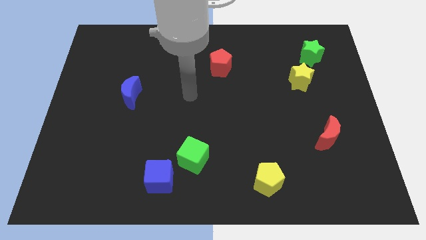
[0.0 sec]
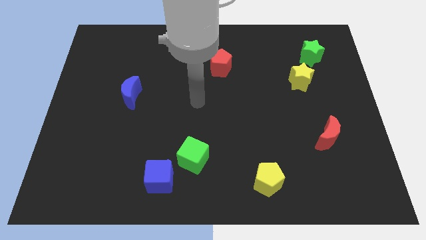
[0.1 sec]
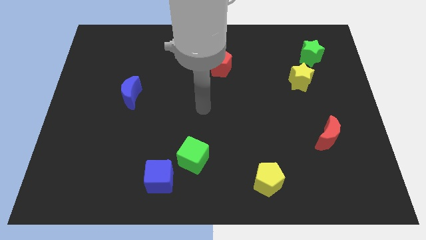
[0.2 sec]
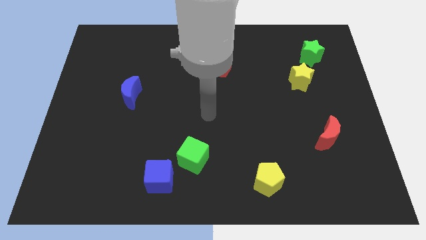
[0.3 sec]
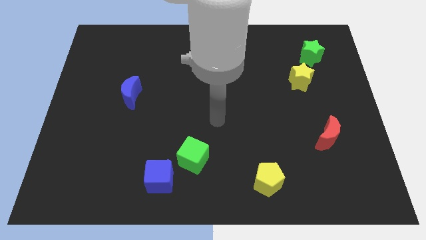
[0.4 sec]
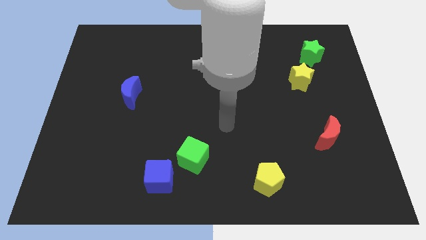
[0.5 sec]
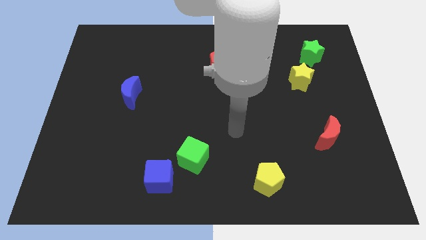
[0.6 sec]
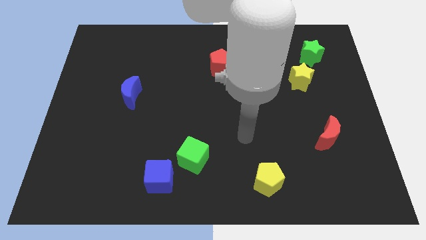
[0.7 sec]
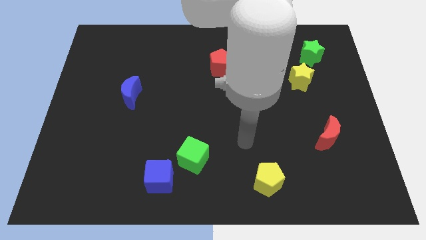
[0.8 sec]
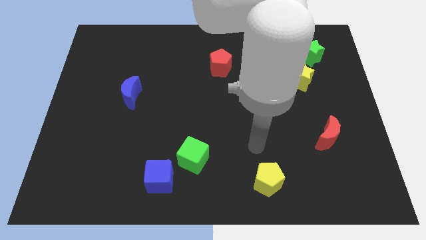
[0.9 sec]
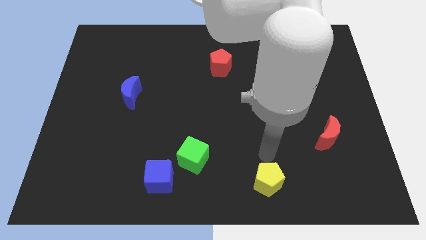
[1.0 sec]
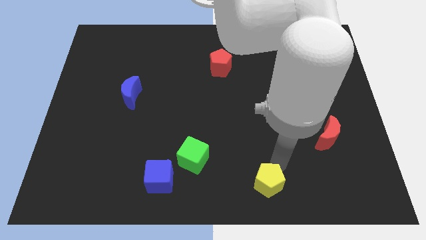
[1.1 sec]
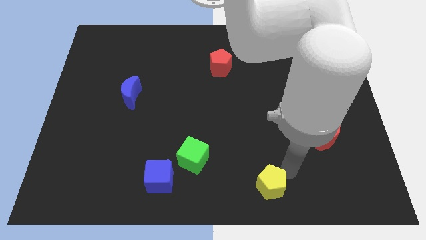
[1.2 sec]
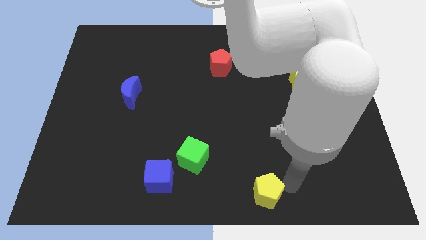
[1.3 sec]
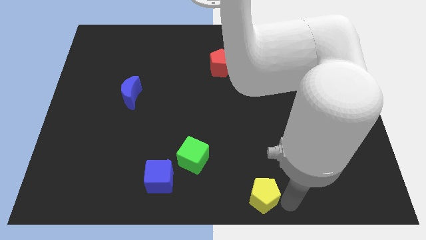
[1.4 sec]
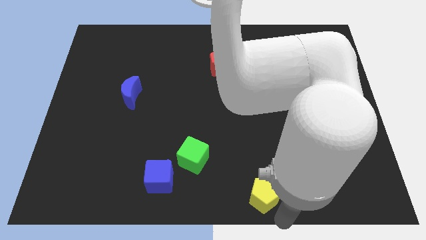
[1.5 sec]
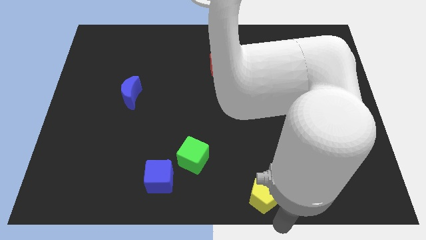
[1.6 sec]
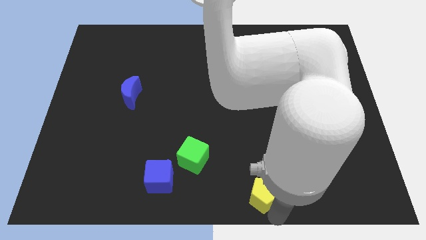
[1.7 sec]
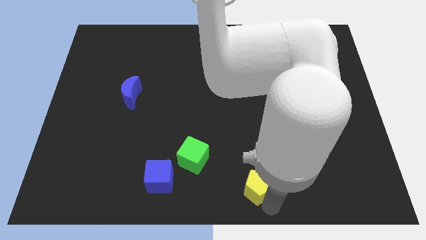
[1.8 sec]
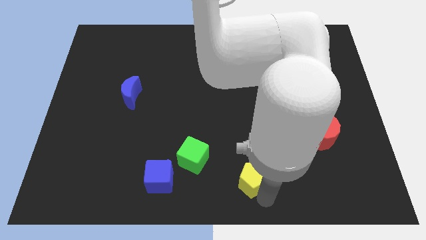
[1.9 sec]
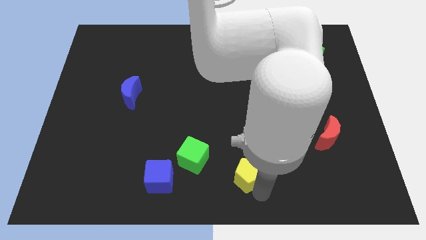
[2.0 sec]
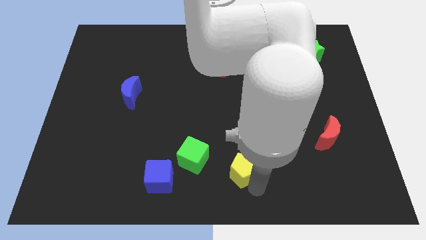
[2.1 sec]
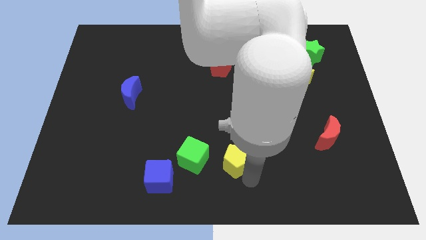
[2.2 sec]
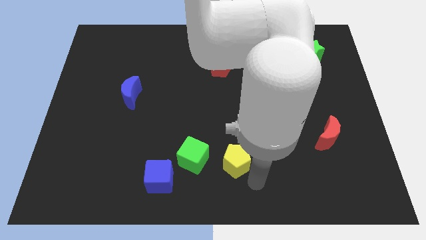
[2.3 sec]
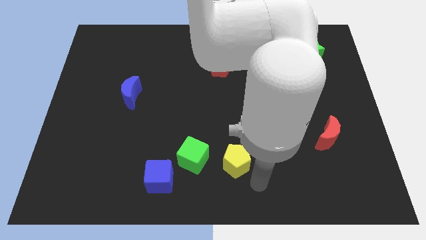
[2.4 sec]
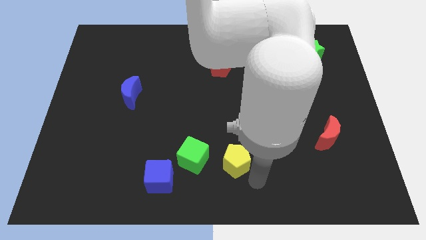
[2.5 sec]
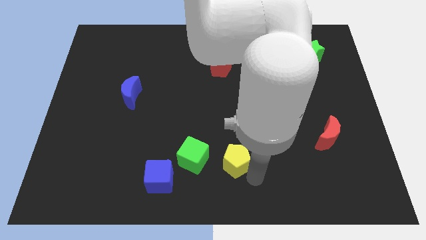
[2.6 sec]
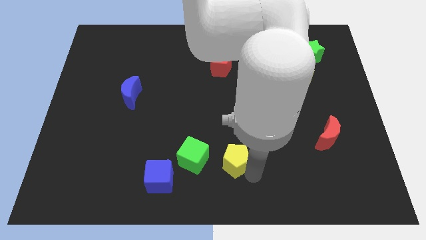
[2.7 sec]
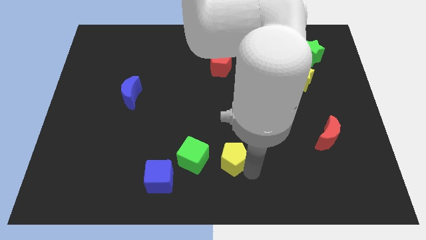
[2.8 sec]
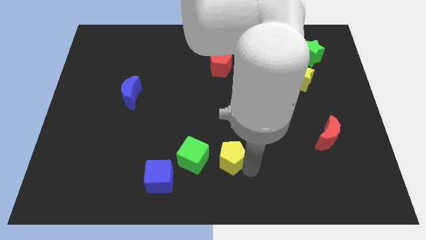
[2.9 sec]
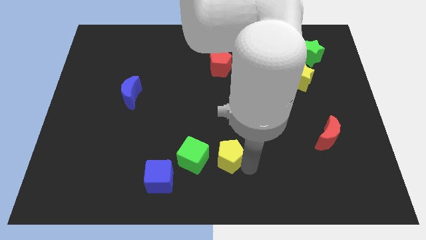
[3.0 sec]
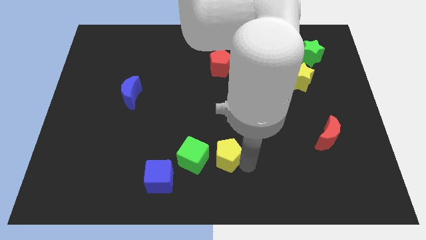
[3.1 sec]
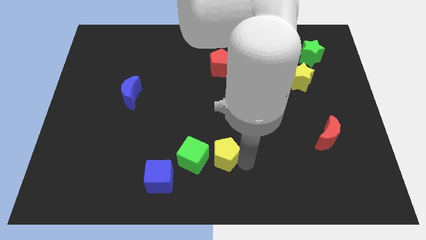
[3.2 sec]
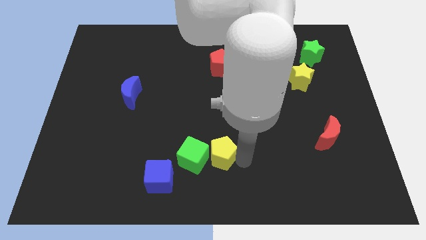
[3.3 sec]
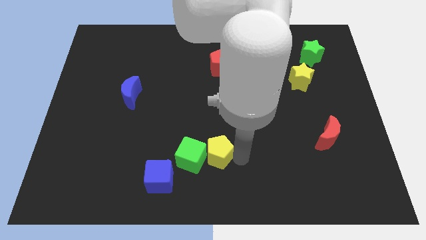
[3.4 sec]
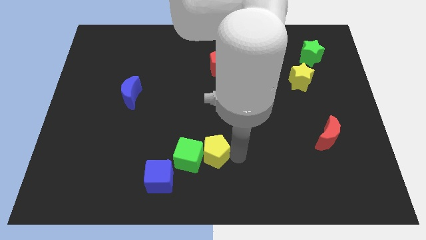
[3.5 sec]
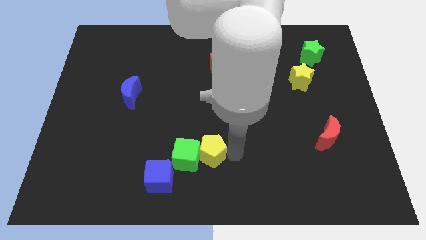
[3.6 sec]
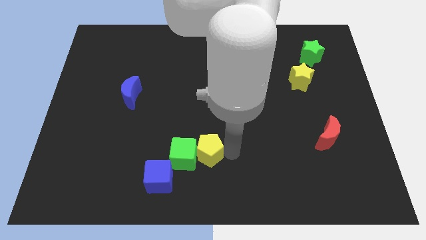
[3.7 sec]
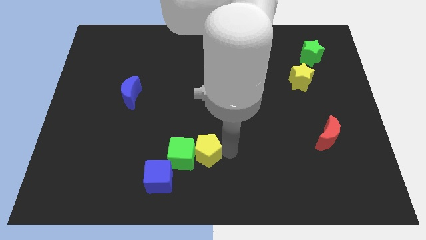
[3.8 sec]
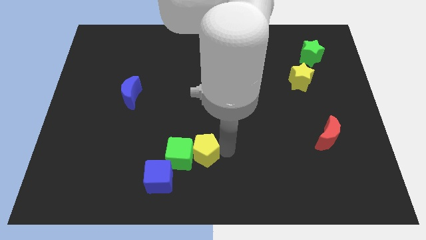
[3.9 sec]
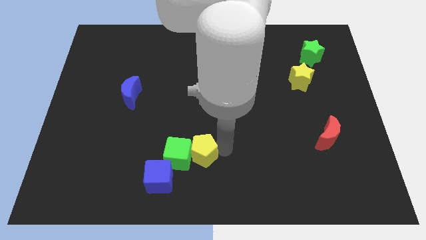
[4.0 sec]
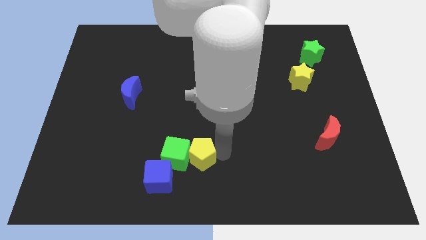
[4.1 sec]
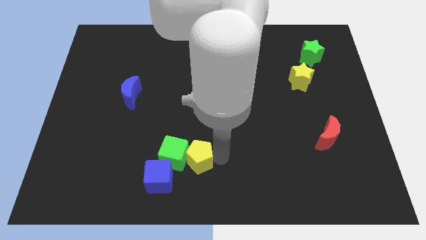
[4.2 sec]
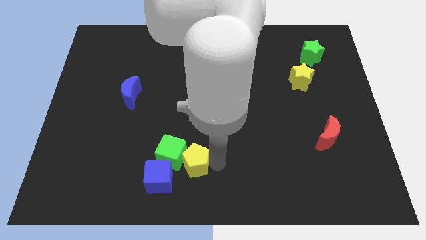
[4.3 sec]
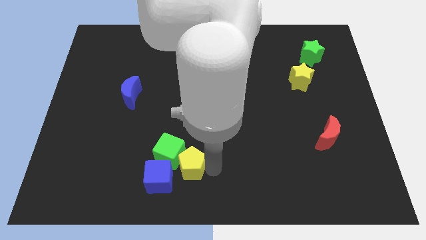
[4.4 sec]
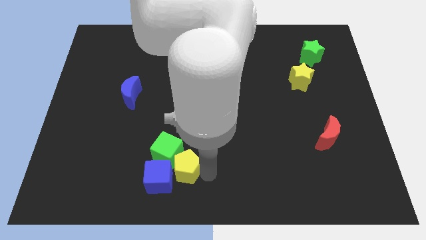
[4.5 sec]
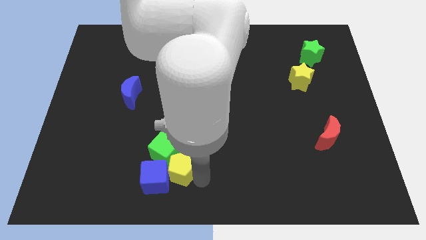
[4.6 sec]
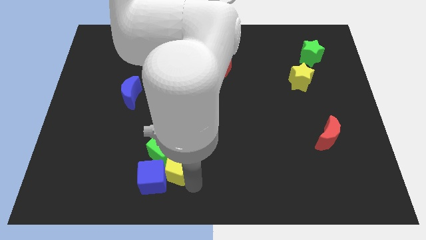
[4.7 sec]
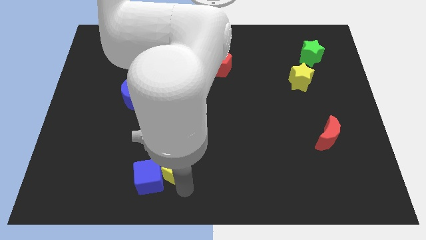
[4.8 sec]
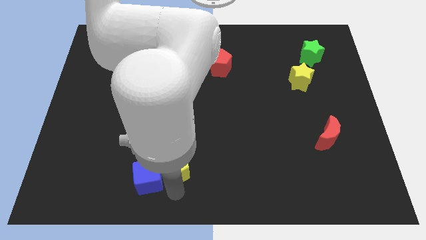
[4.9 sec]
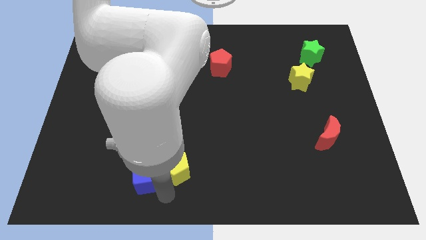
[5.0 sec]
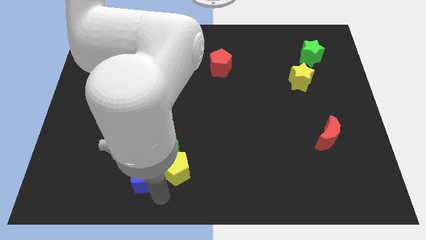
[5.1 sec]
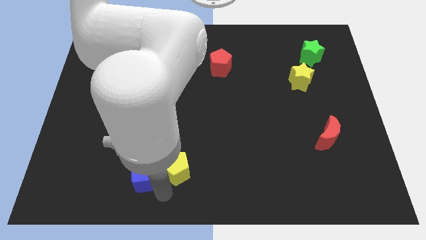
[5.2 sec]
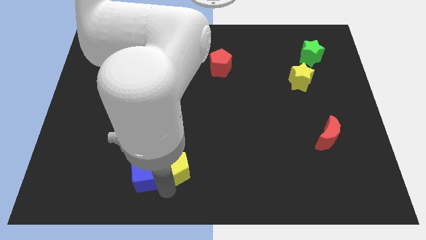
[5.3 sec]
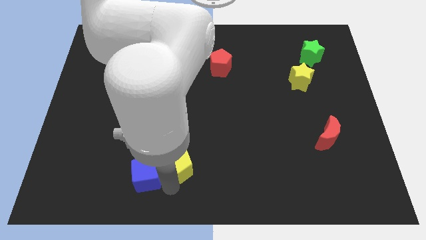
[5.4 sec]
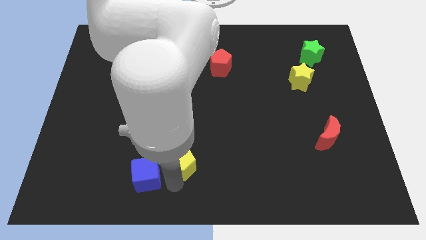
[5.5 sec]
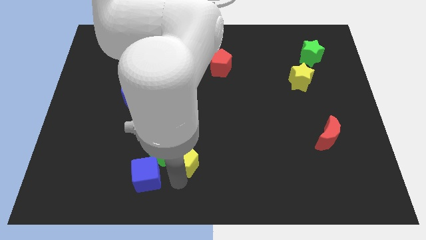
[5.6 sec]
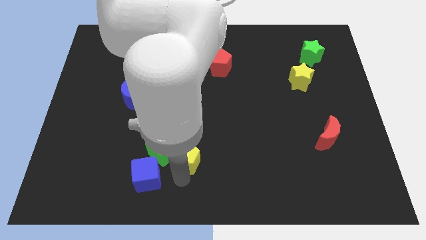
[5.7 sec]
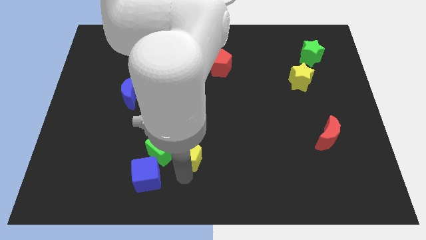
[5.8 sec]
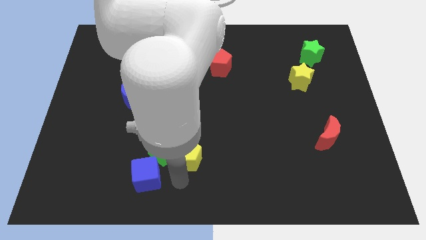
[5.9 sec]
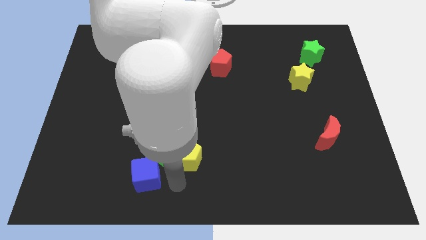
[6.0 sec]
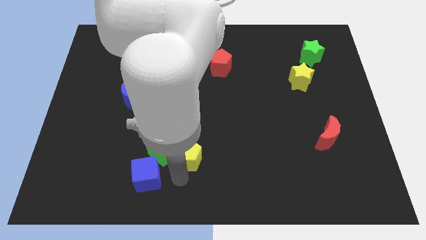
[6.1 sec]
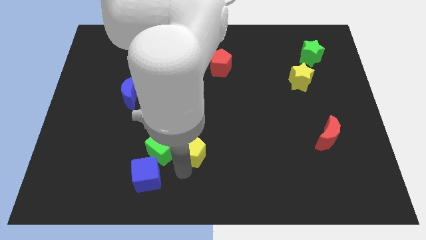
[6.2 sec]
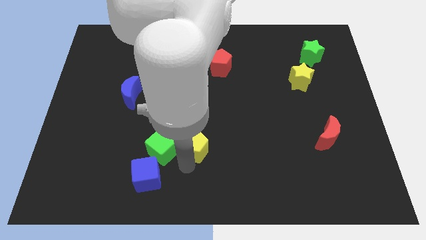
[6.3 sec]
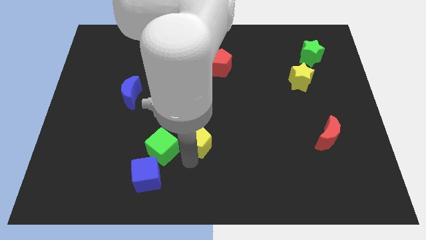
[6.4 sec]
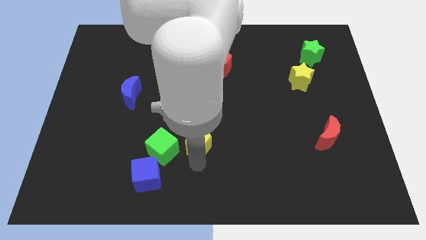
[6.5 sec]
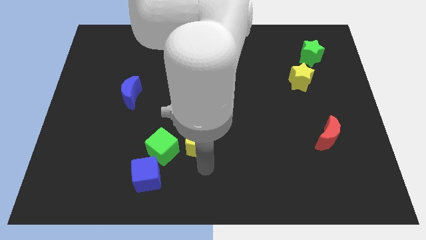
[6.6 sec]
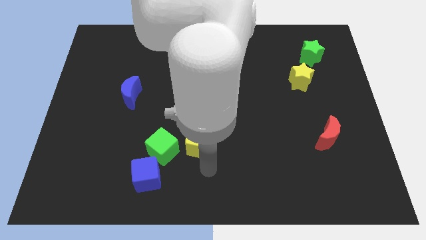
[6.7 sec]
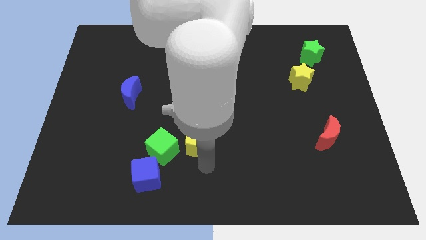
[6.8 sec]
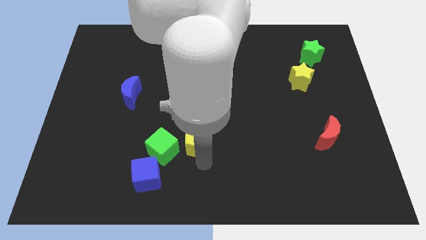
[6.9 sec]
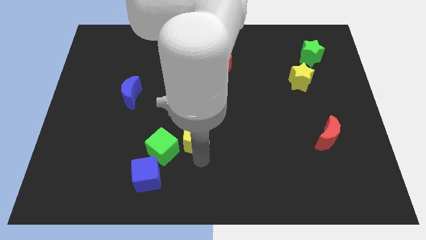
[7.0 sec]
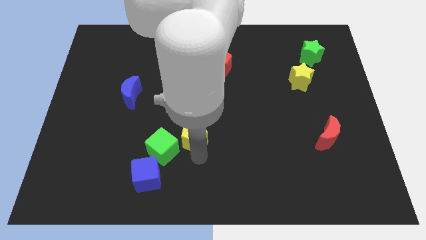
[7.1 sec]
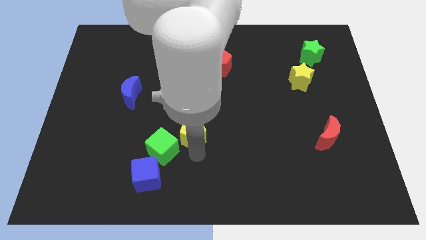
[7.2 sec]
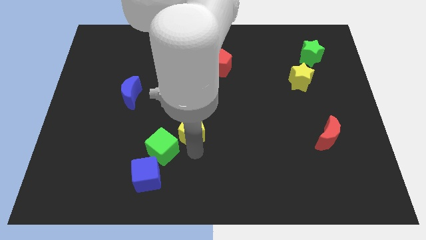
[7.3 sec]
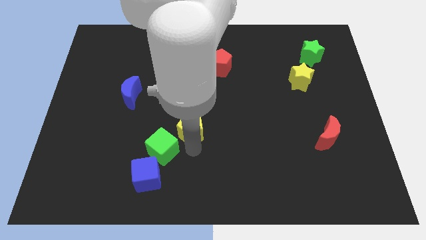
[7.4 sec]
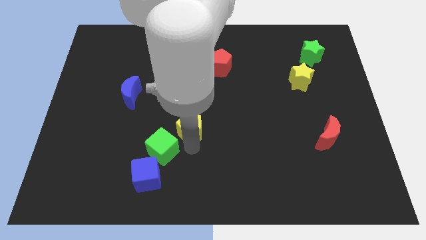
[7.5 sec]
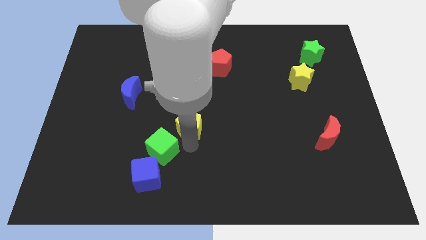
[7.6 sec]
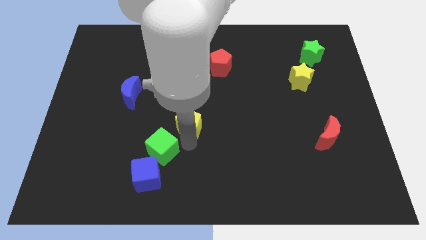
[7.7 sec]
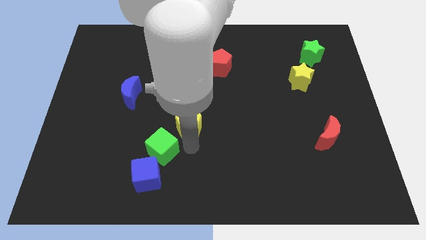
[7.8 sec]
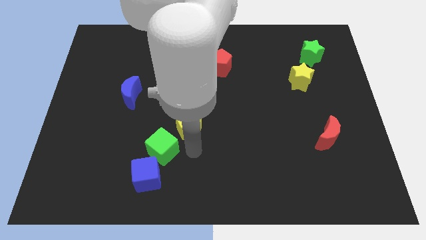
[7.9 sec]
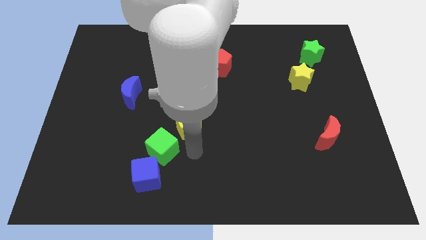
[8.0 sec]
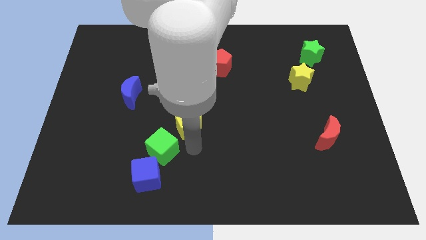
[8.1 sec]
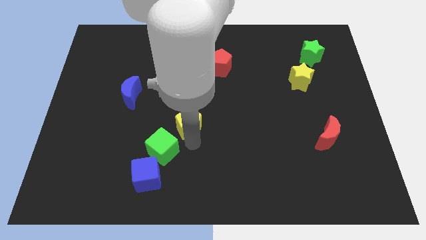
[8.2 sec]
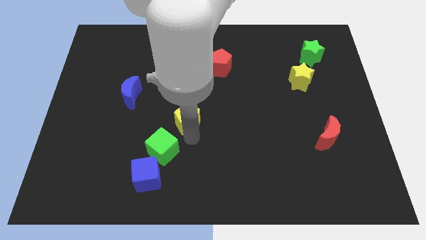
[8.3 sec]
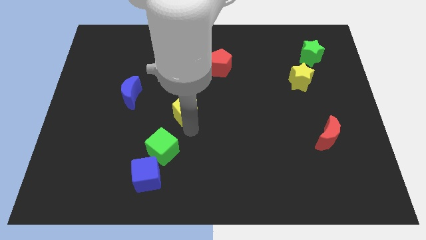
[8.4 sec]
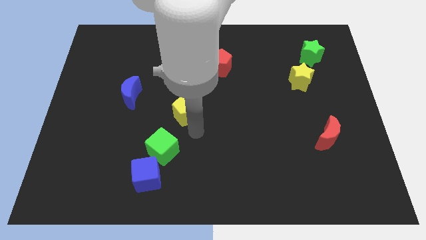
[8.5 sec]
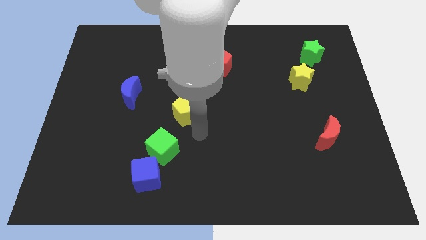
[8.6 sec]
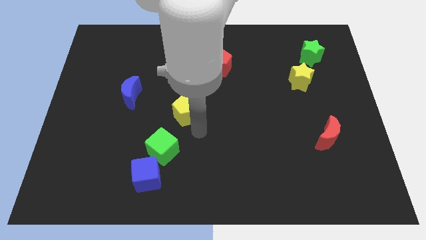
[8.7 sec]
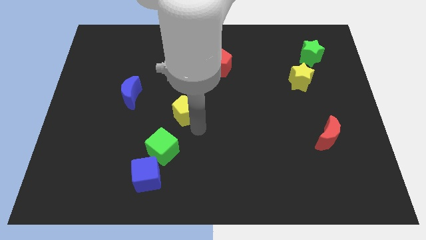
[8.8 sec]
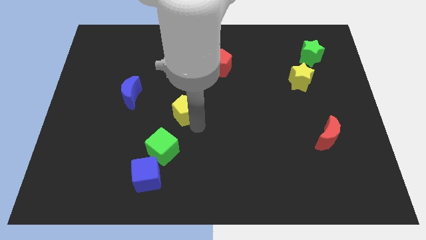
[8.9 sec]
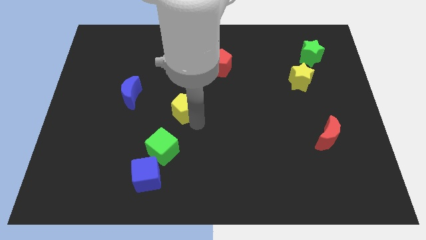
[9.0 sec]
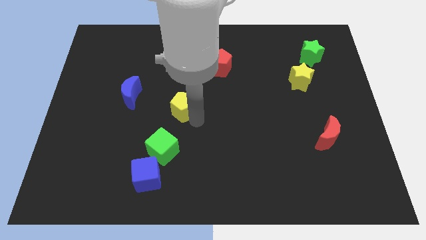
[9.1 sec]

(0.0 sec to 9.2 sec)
slide the yellow pentagon right of the blue moon
